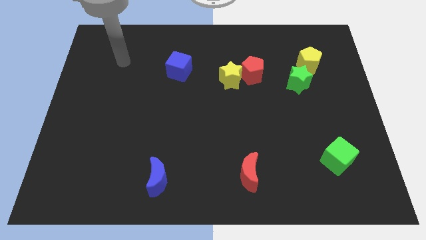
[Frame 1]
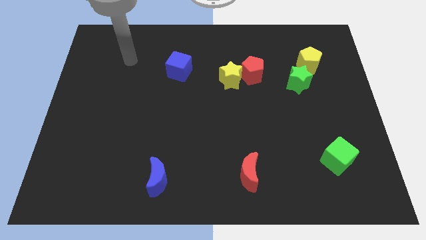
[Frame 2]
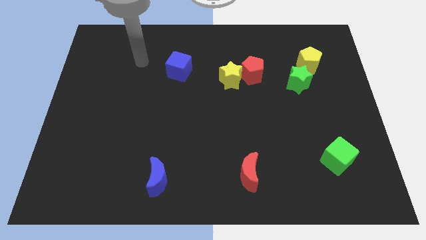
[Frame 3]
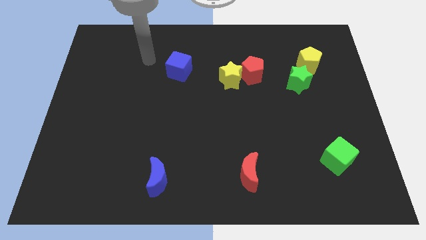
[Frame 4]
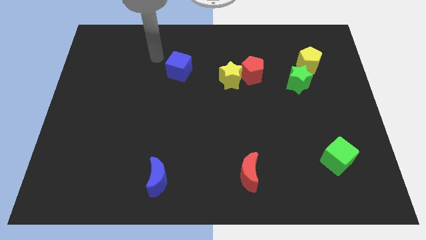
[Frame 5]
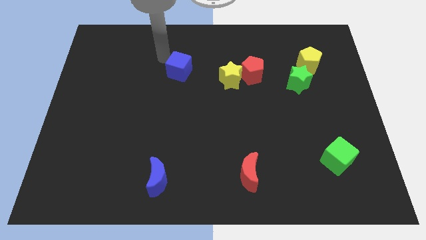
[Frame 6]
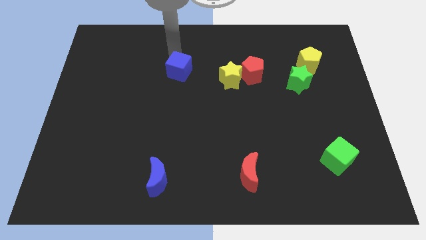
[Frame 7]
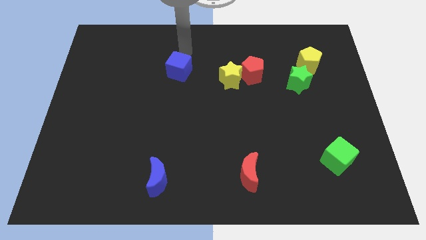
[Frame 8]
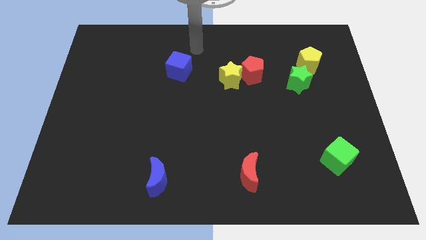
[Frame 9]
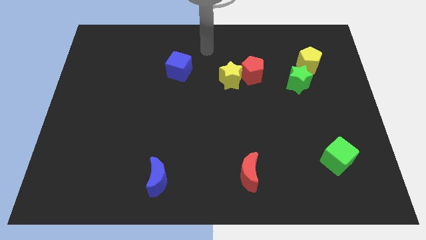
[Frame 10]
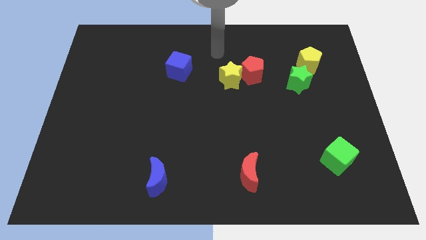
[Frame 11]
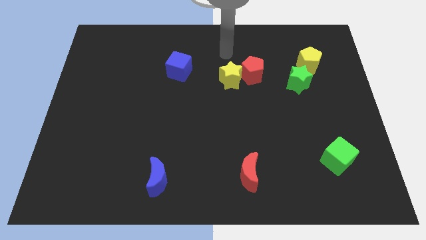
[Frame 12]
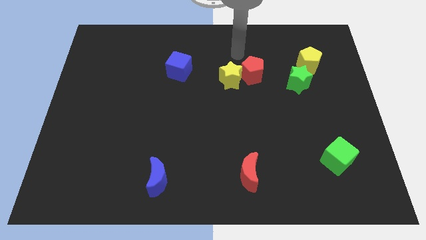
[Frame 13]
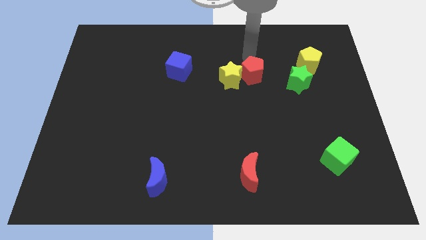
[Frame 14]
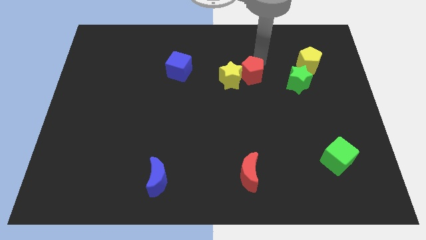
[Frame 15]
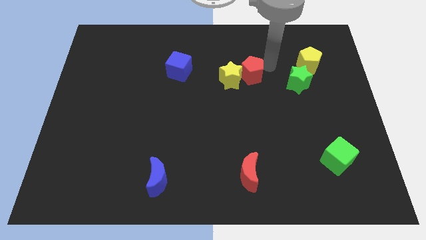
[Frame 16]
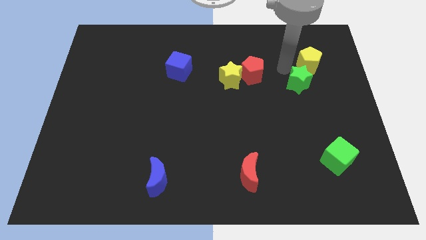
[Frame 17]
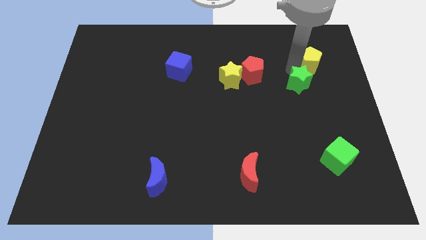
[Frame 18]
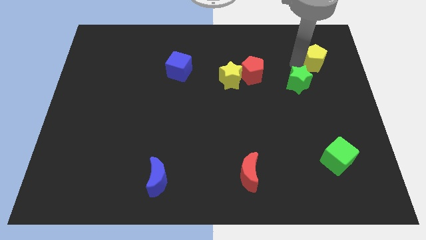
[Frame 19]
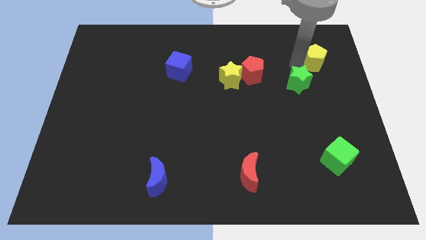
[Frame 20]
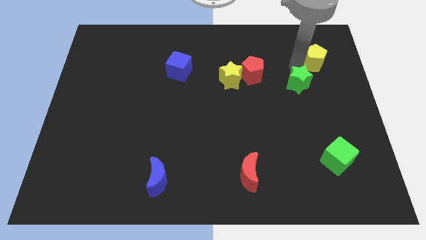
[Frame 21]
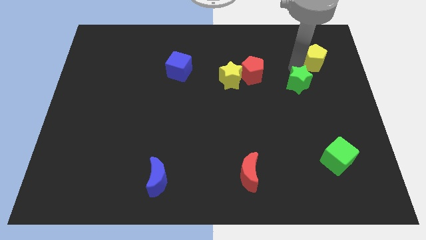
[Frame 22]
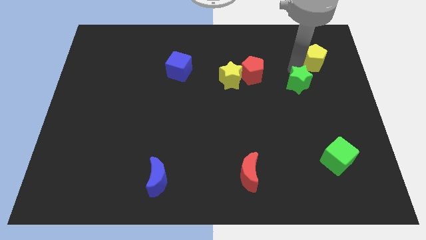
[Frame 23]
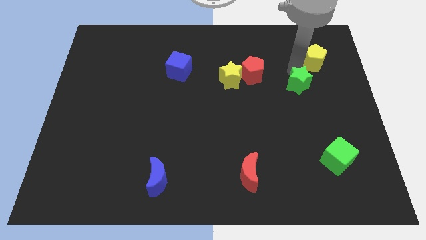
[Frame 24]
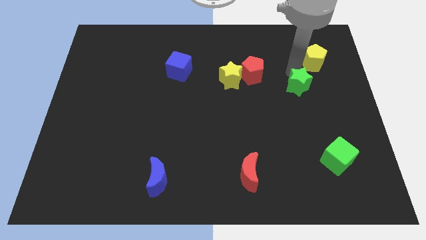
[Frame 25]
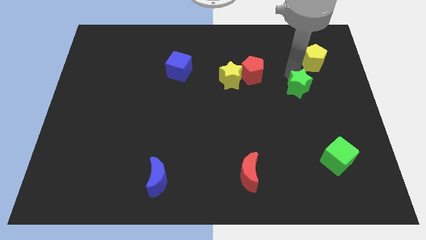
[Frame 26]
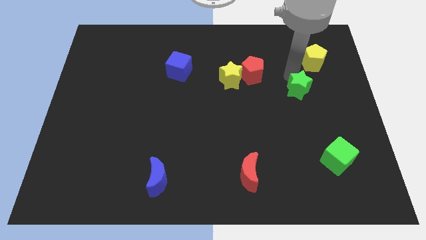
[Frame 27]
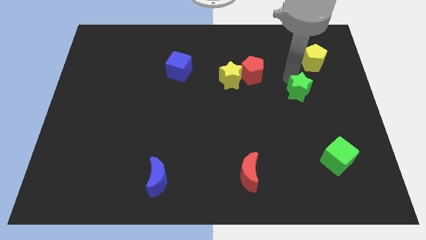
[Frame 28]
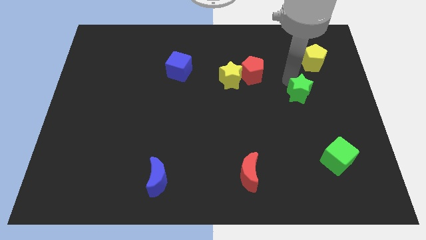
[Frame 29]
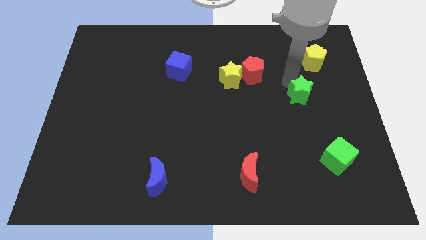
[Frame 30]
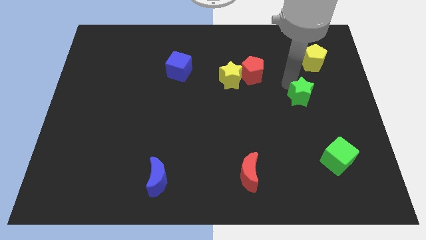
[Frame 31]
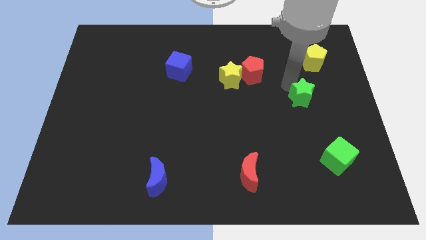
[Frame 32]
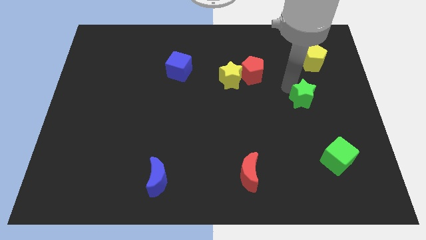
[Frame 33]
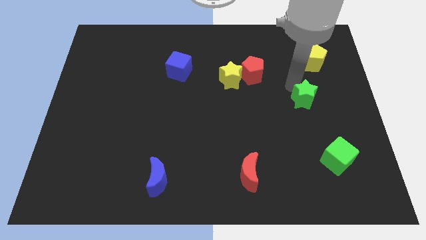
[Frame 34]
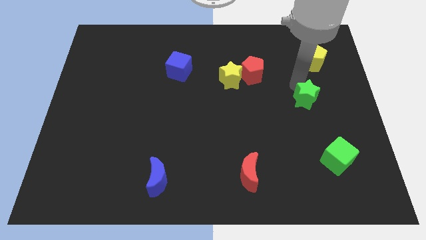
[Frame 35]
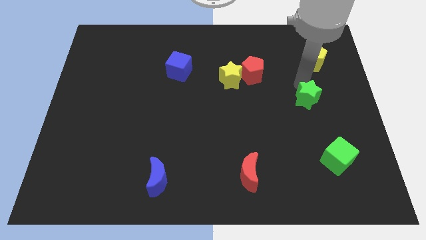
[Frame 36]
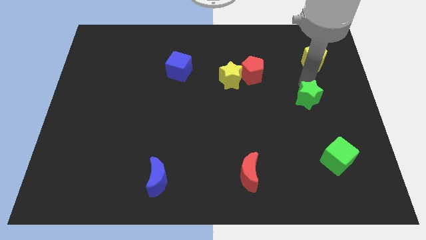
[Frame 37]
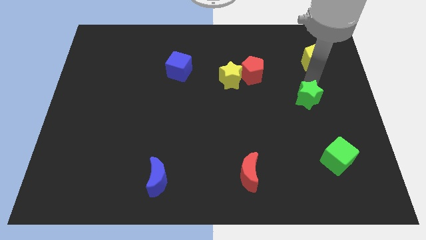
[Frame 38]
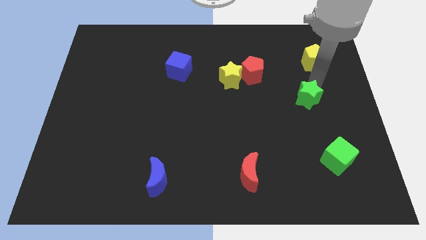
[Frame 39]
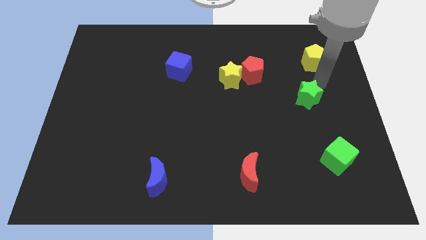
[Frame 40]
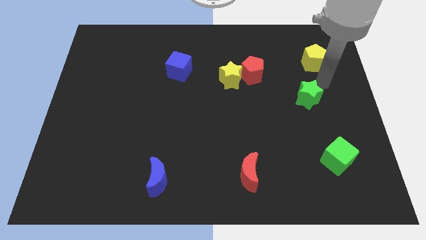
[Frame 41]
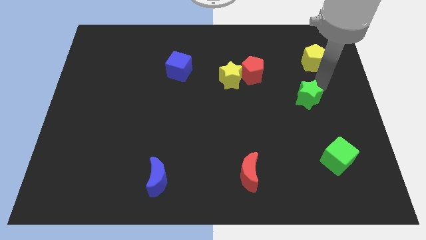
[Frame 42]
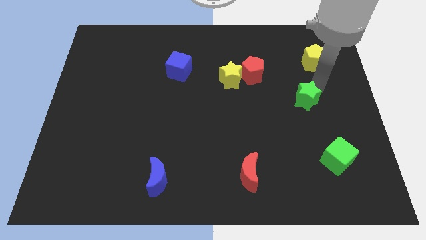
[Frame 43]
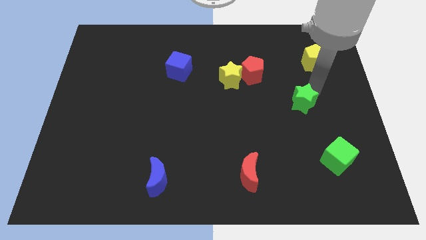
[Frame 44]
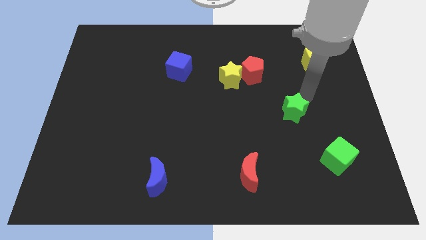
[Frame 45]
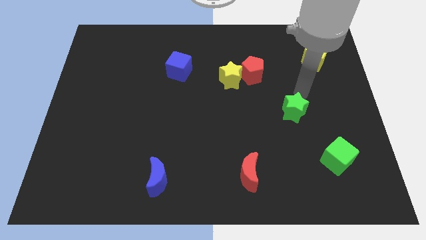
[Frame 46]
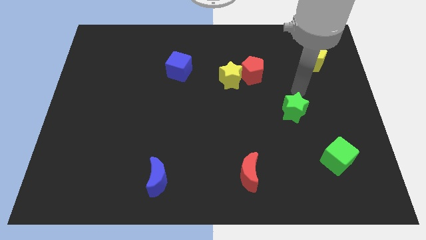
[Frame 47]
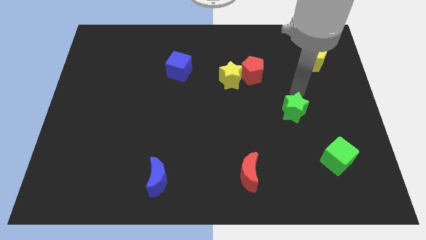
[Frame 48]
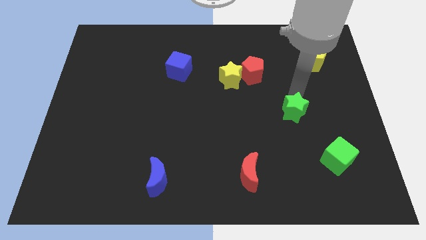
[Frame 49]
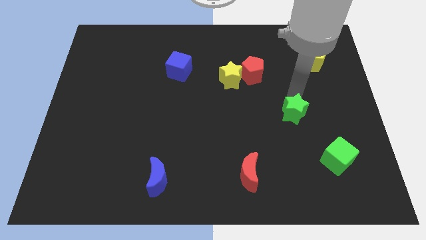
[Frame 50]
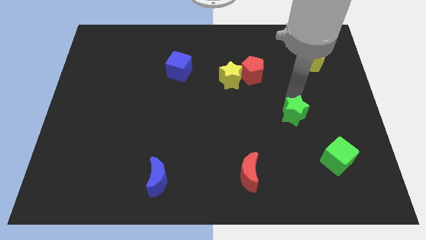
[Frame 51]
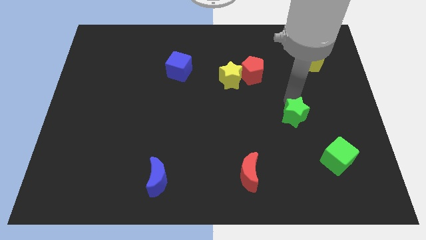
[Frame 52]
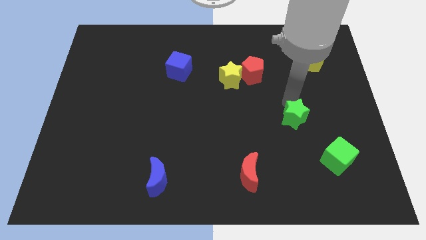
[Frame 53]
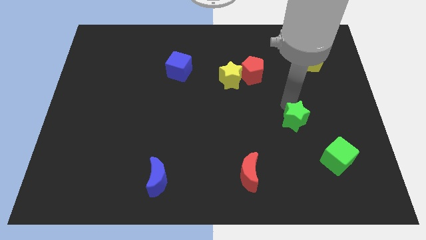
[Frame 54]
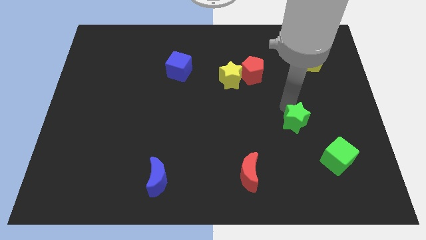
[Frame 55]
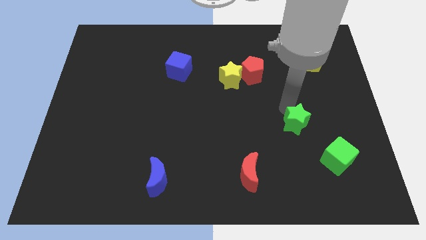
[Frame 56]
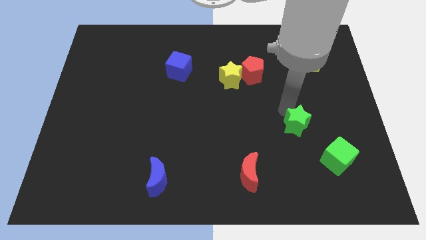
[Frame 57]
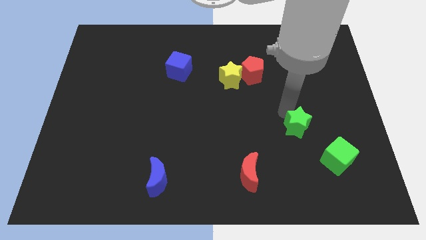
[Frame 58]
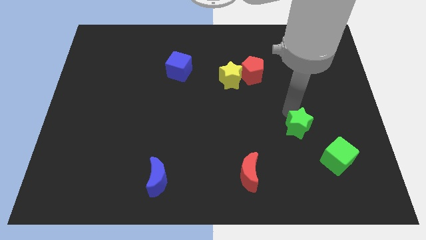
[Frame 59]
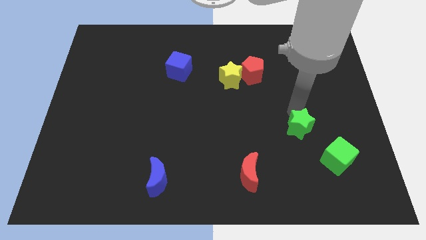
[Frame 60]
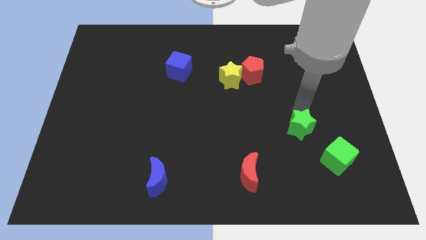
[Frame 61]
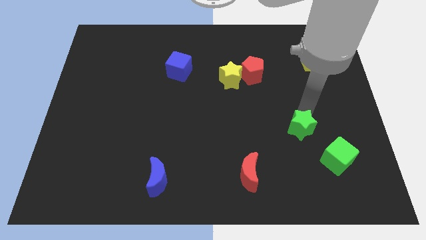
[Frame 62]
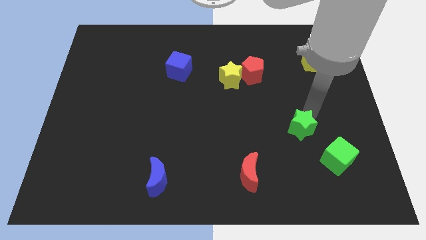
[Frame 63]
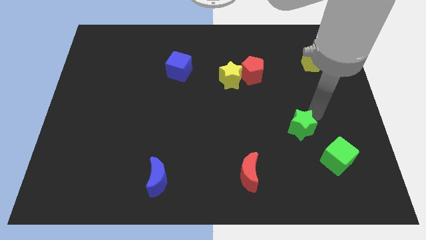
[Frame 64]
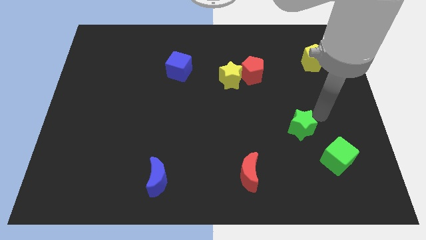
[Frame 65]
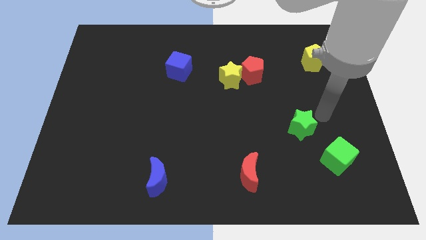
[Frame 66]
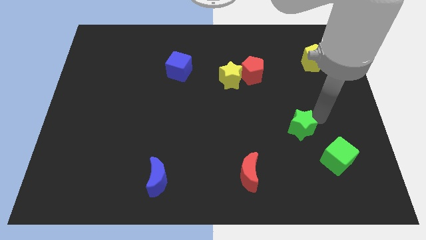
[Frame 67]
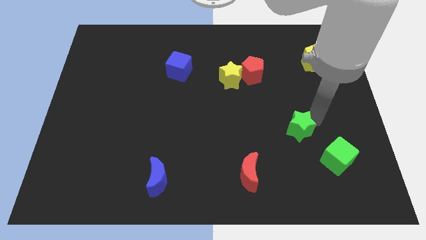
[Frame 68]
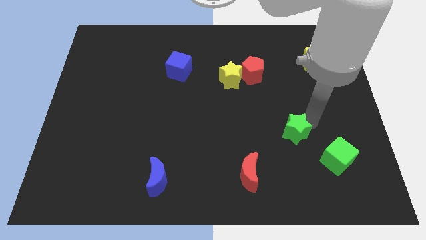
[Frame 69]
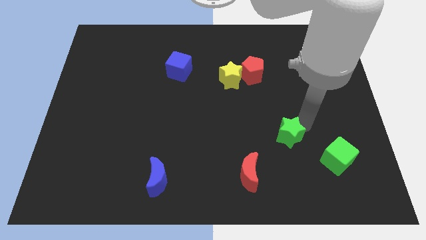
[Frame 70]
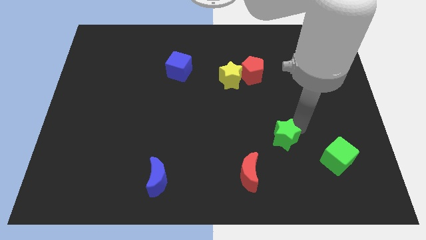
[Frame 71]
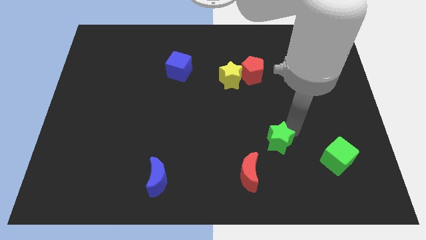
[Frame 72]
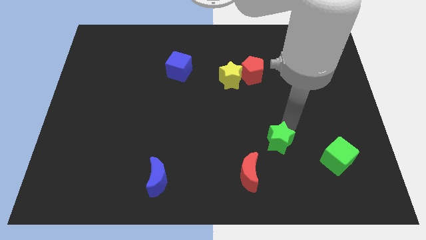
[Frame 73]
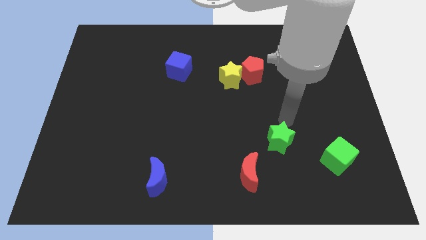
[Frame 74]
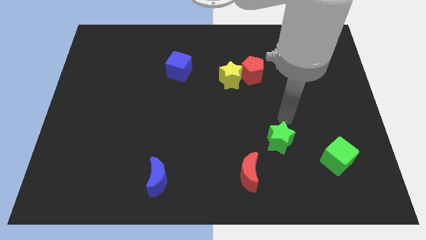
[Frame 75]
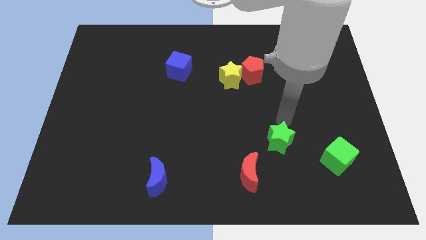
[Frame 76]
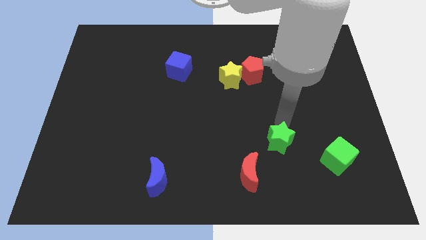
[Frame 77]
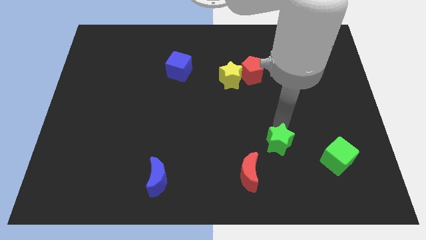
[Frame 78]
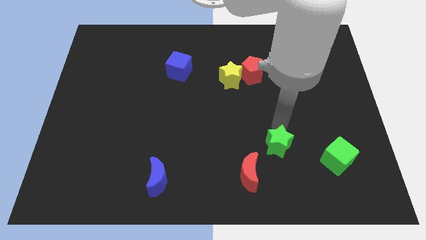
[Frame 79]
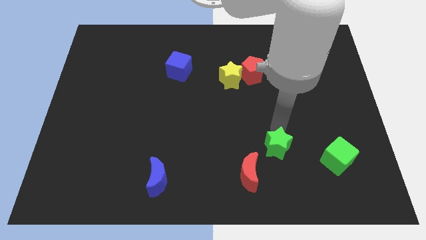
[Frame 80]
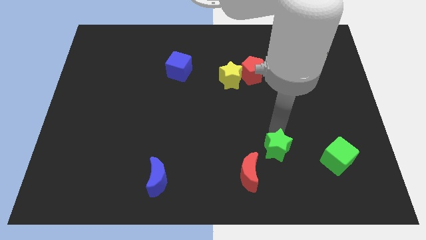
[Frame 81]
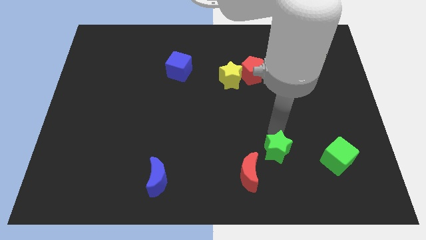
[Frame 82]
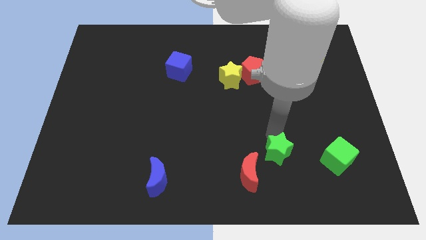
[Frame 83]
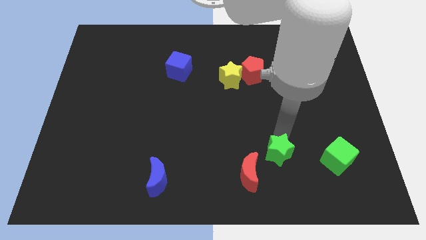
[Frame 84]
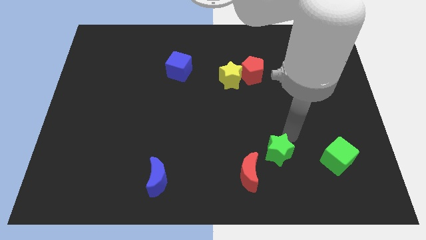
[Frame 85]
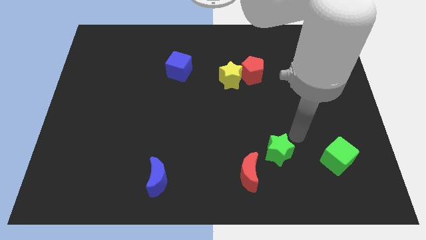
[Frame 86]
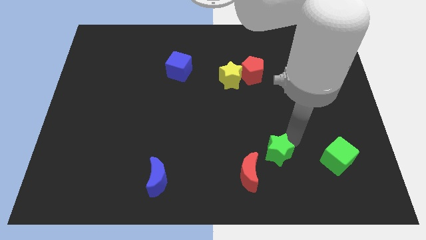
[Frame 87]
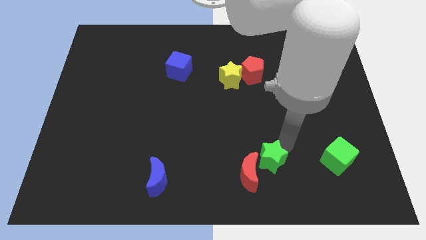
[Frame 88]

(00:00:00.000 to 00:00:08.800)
push the green star next to the red moon
